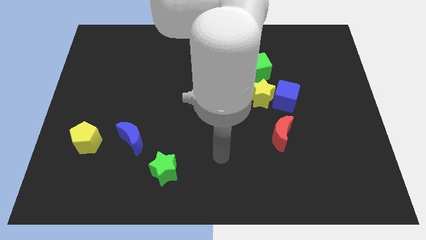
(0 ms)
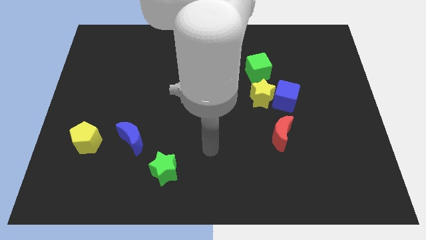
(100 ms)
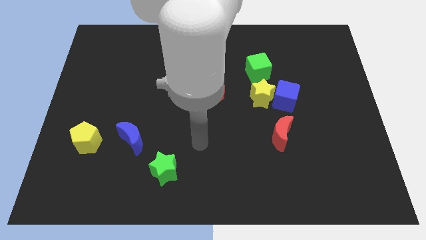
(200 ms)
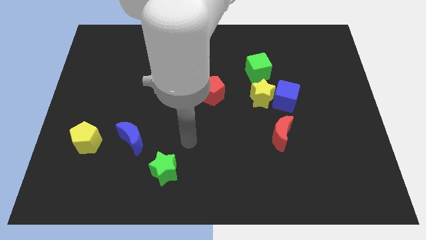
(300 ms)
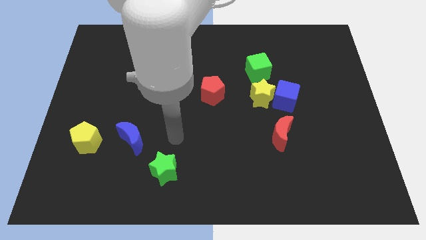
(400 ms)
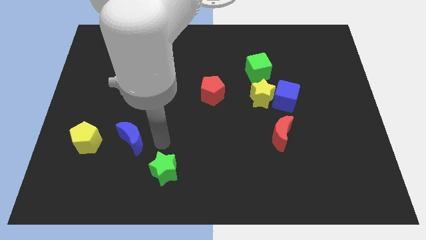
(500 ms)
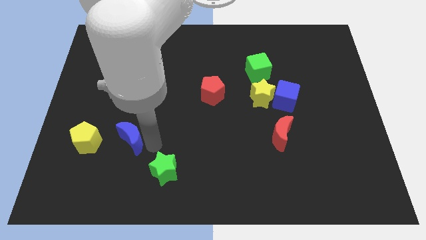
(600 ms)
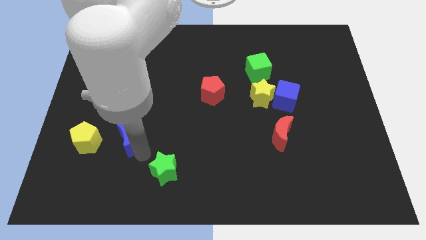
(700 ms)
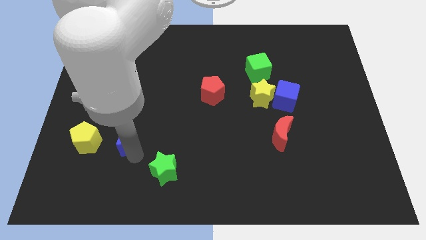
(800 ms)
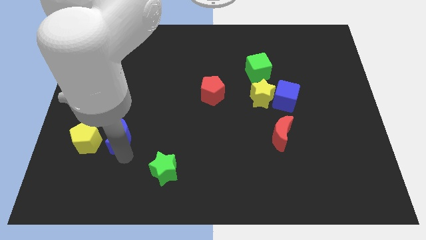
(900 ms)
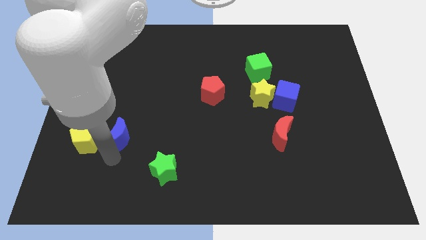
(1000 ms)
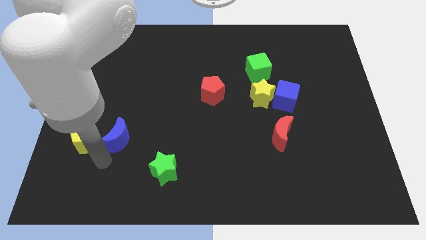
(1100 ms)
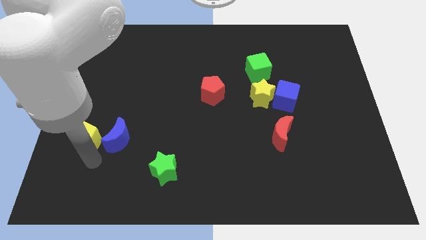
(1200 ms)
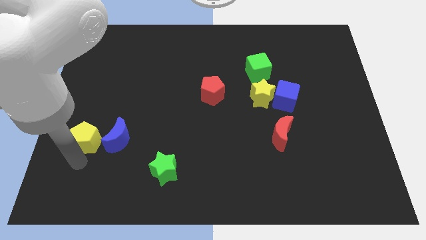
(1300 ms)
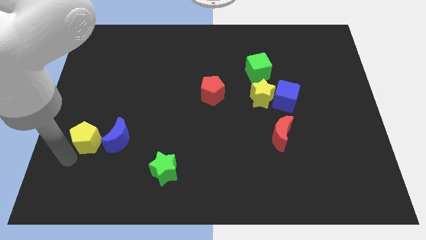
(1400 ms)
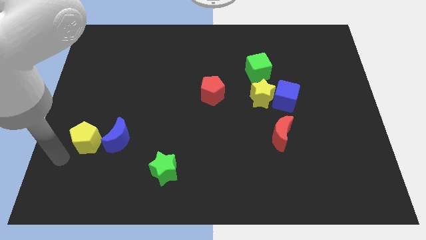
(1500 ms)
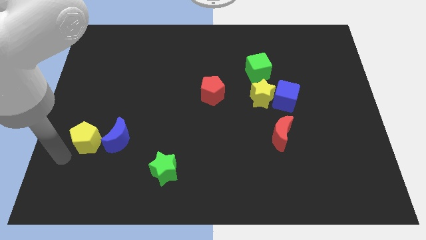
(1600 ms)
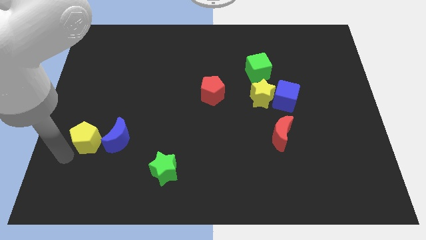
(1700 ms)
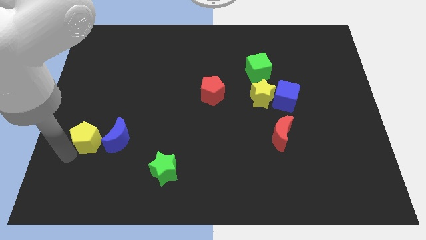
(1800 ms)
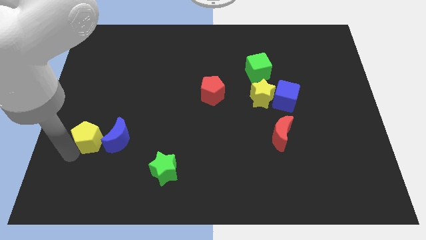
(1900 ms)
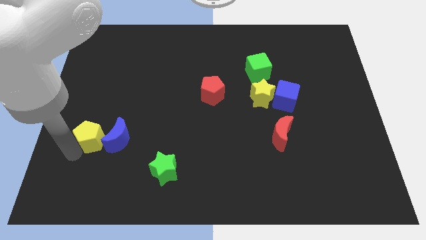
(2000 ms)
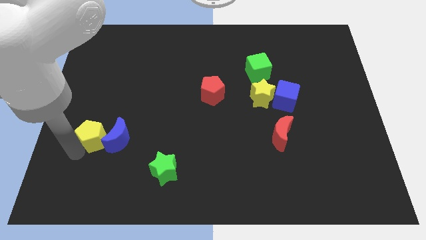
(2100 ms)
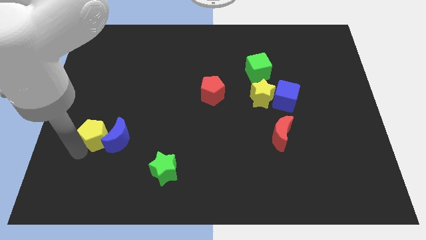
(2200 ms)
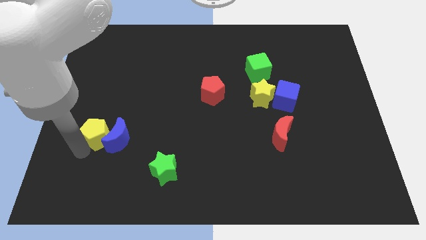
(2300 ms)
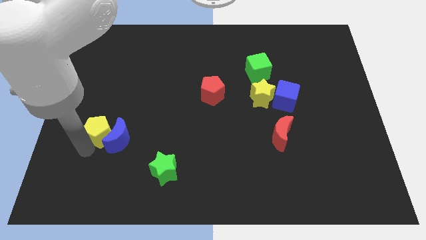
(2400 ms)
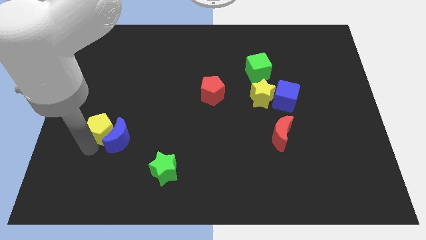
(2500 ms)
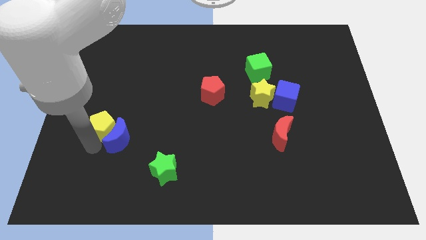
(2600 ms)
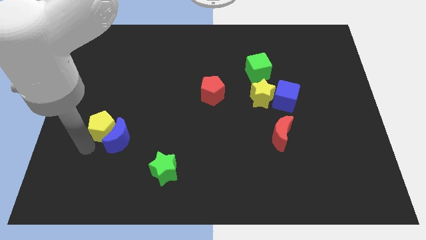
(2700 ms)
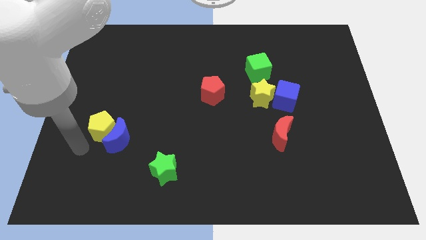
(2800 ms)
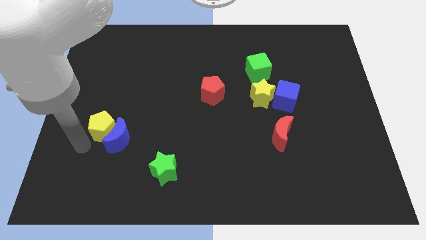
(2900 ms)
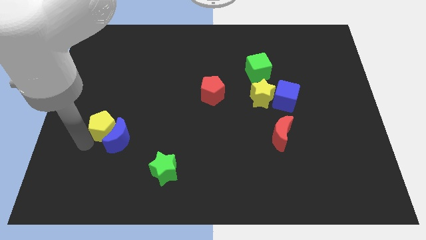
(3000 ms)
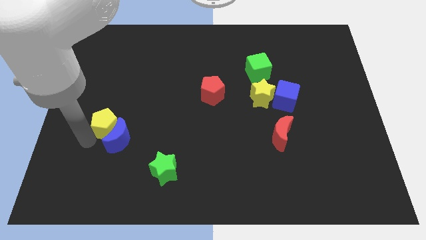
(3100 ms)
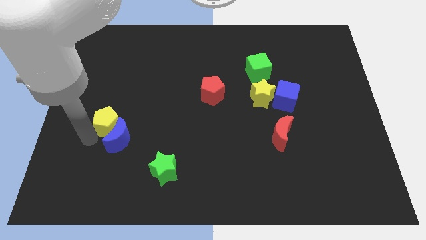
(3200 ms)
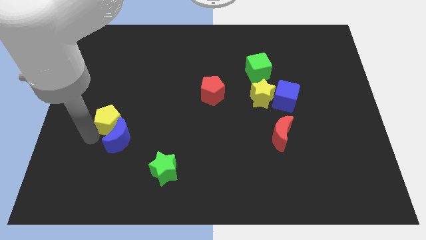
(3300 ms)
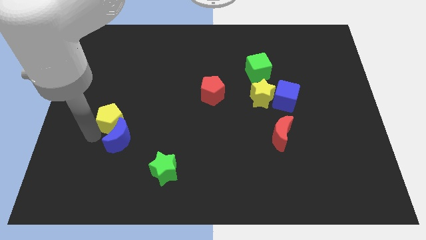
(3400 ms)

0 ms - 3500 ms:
slide the yellow pentagon diagonally upwards and right somewhat

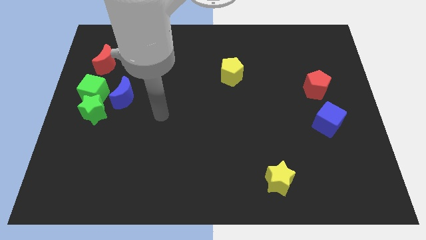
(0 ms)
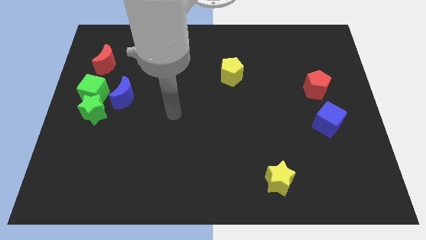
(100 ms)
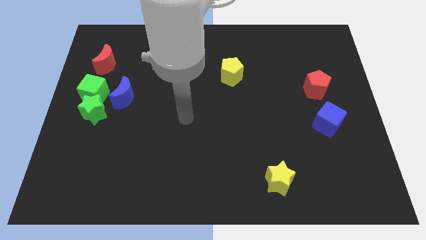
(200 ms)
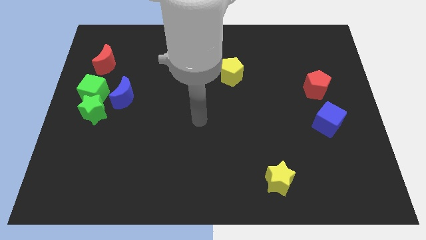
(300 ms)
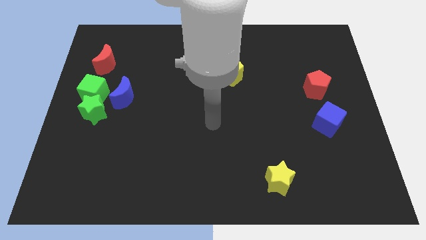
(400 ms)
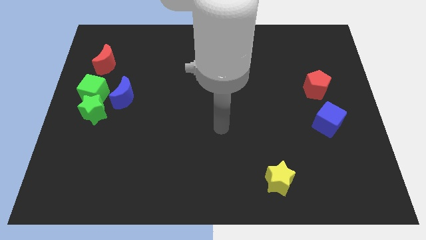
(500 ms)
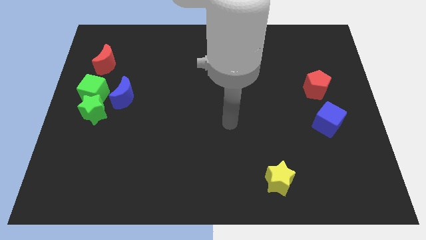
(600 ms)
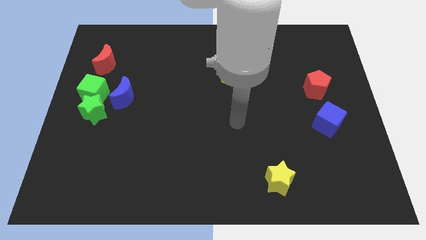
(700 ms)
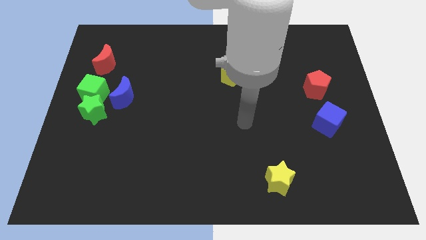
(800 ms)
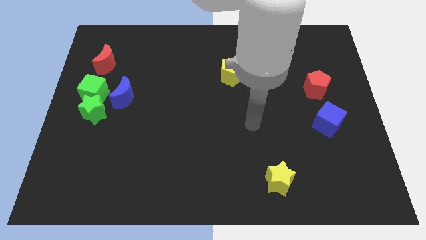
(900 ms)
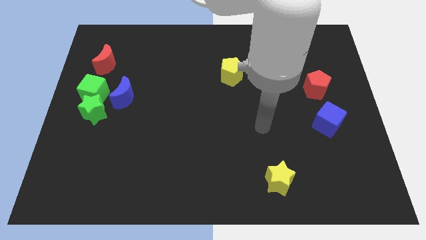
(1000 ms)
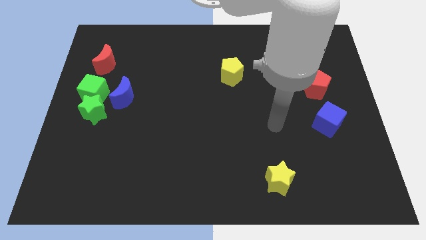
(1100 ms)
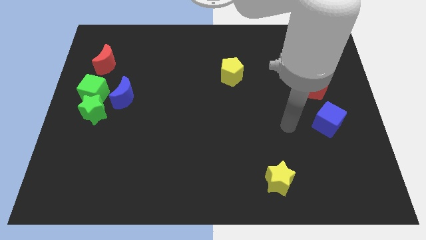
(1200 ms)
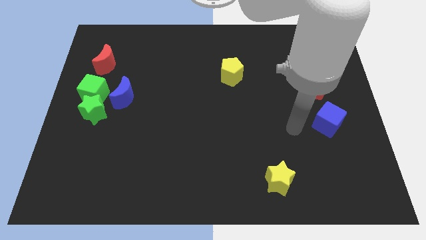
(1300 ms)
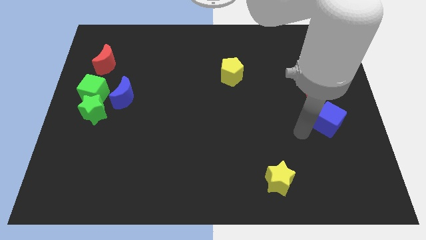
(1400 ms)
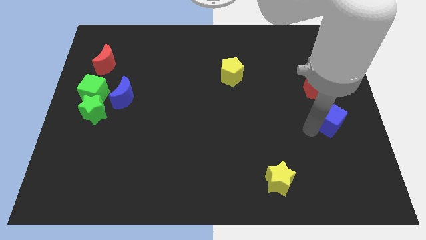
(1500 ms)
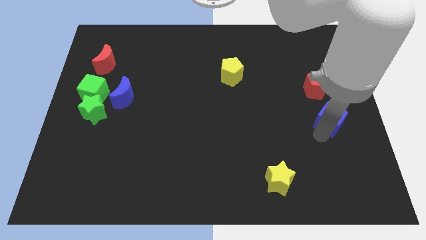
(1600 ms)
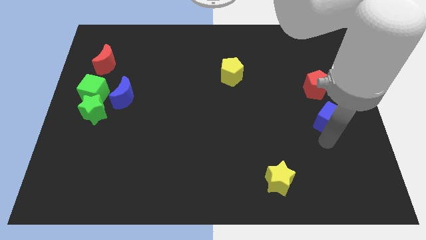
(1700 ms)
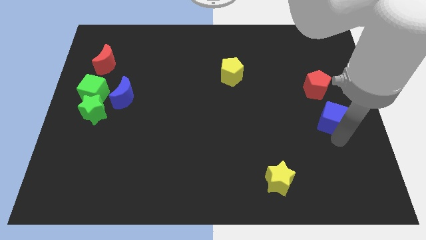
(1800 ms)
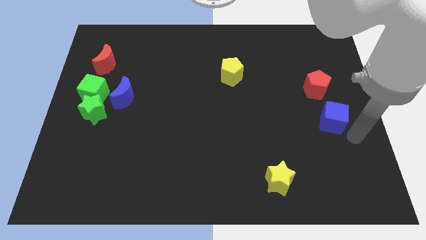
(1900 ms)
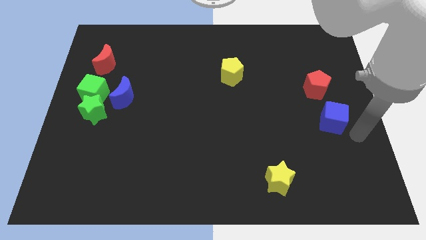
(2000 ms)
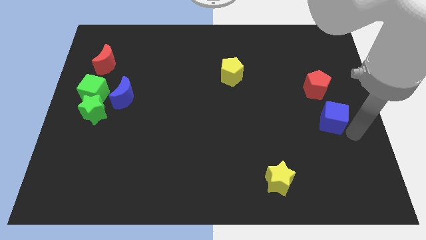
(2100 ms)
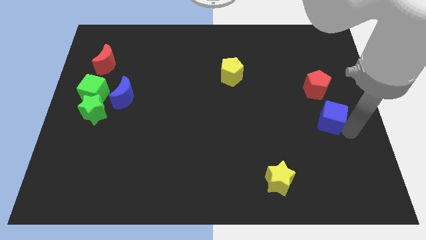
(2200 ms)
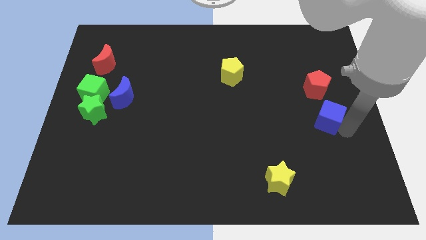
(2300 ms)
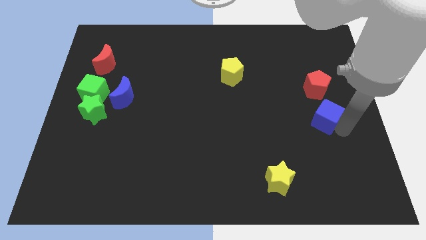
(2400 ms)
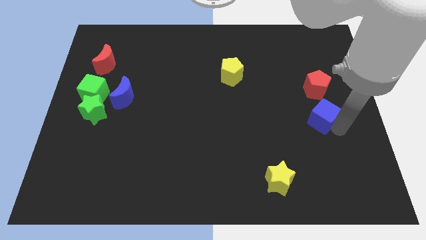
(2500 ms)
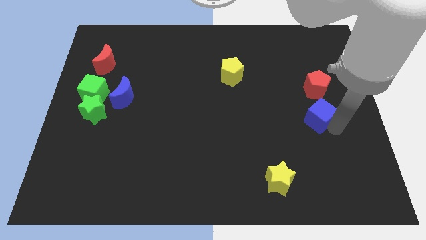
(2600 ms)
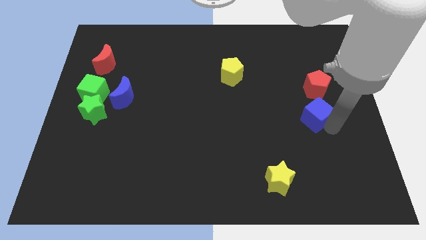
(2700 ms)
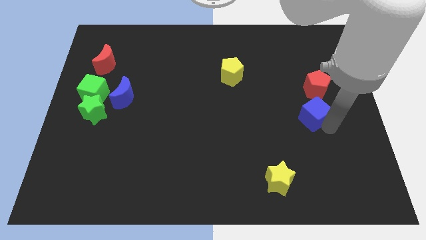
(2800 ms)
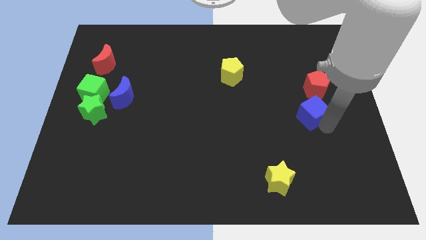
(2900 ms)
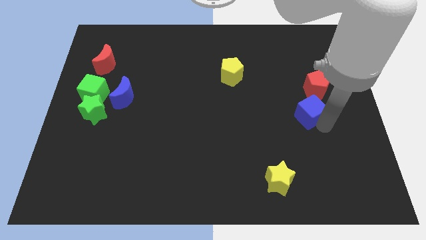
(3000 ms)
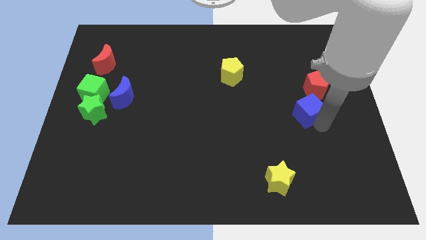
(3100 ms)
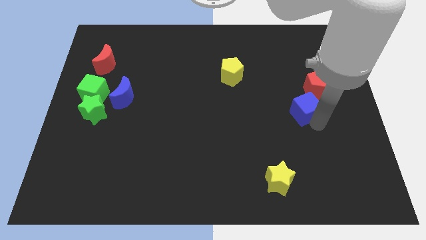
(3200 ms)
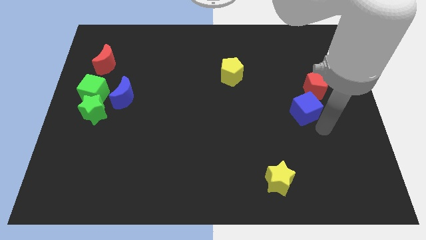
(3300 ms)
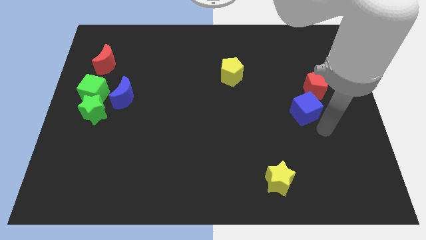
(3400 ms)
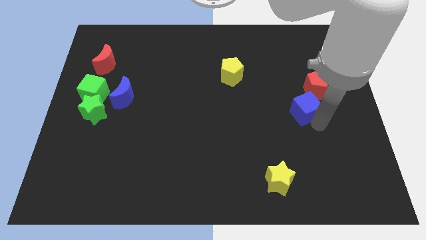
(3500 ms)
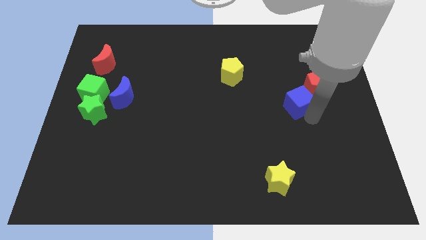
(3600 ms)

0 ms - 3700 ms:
push the blue cube somewhat up and to the left

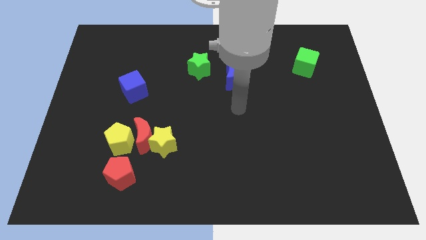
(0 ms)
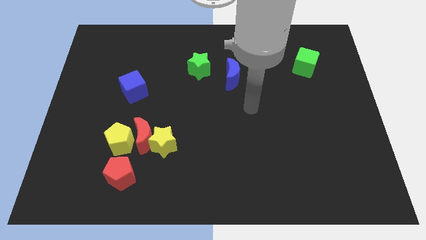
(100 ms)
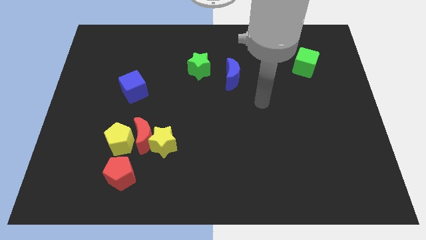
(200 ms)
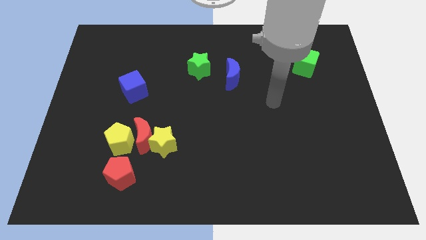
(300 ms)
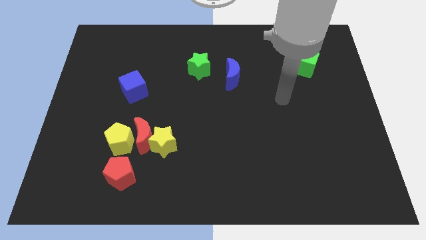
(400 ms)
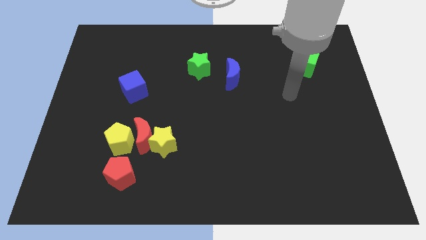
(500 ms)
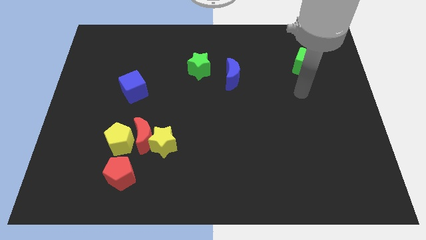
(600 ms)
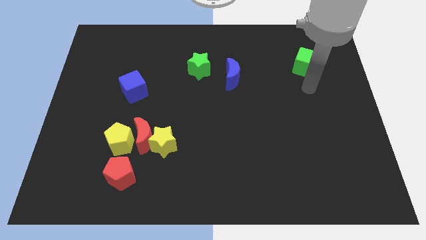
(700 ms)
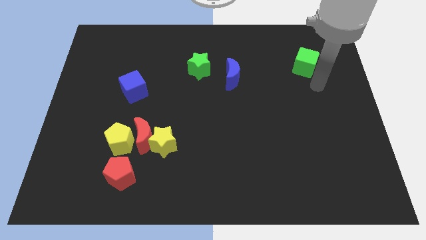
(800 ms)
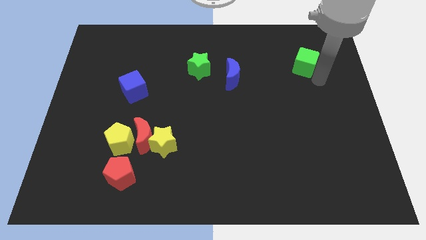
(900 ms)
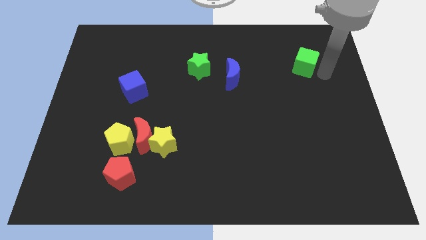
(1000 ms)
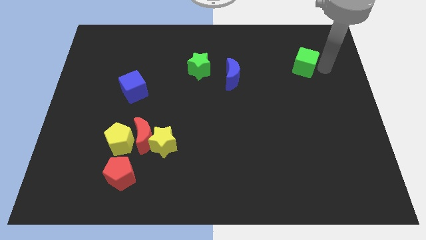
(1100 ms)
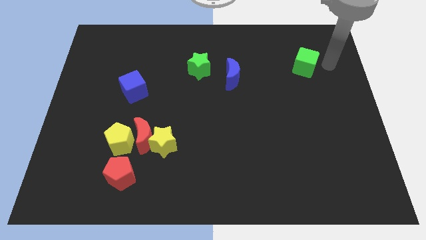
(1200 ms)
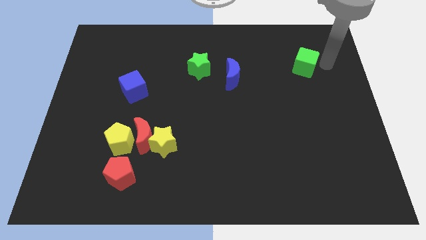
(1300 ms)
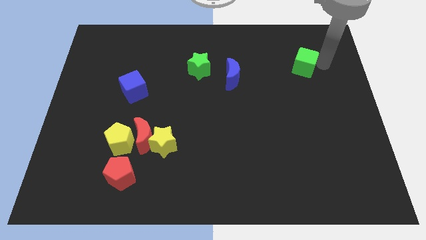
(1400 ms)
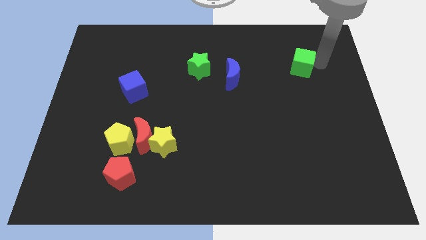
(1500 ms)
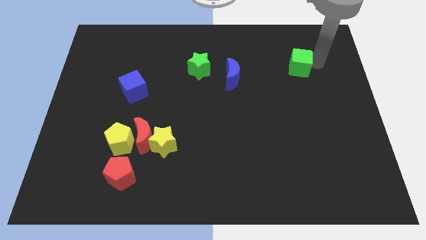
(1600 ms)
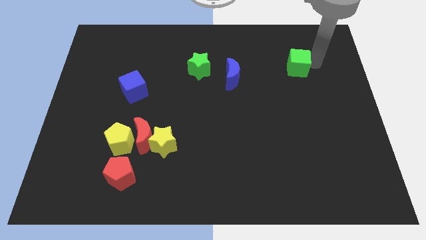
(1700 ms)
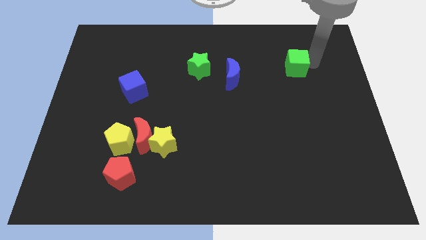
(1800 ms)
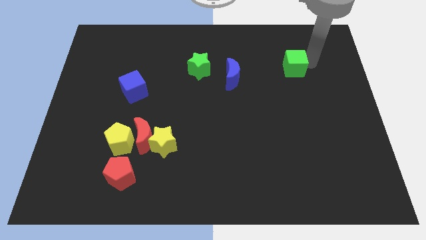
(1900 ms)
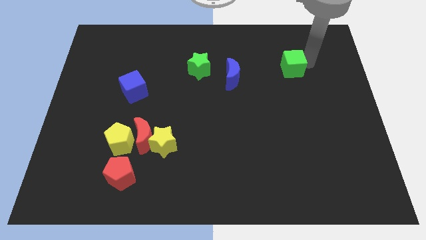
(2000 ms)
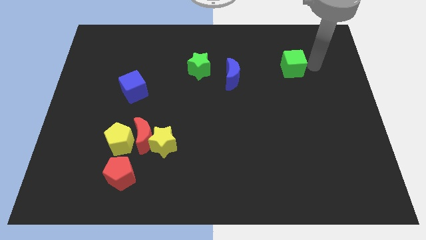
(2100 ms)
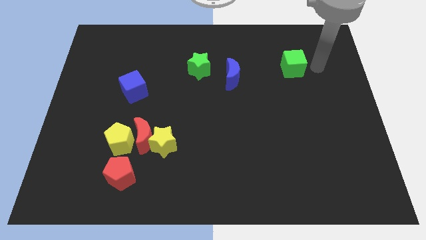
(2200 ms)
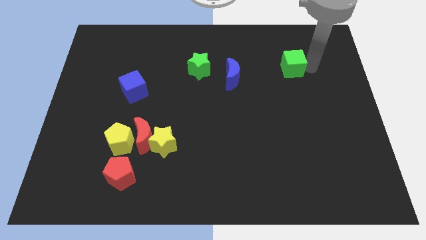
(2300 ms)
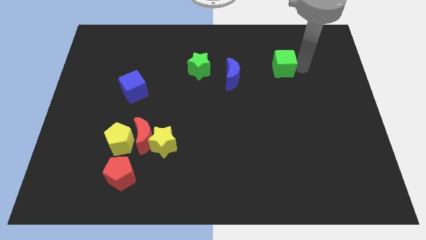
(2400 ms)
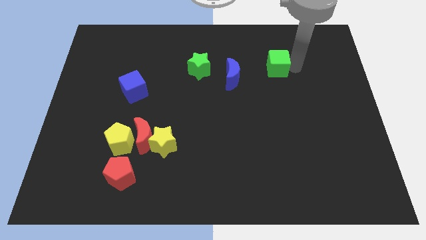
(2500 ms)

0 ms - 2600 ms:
slightly move the green cube left
